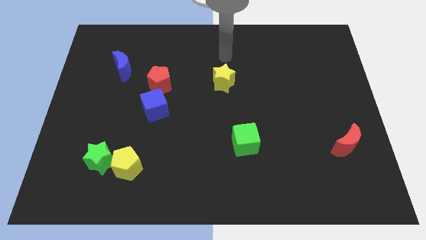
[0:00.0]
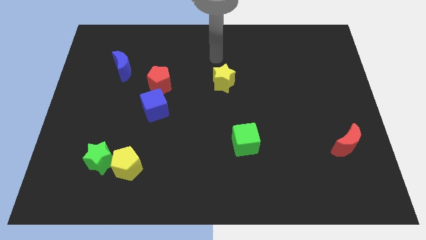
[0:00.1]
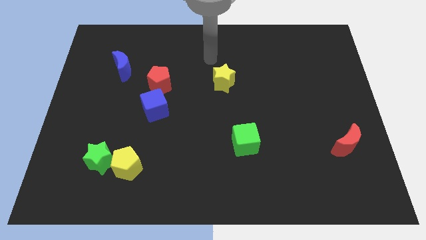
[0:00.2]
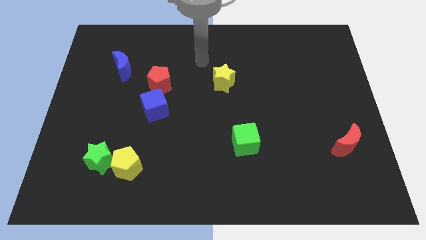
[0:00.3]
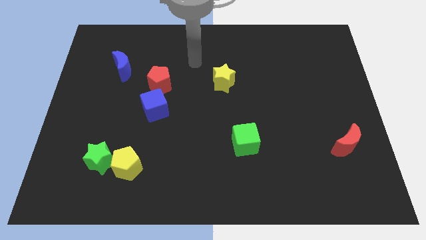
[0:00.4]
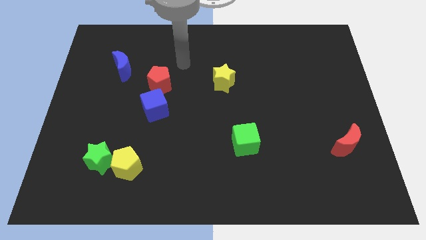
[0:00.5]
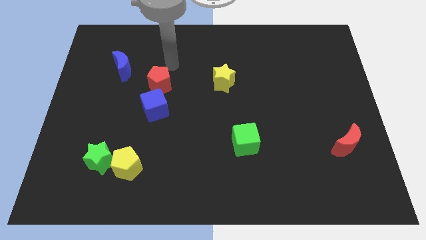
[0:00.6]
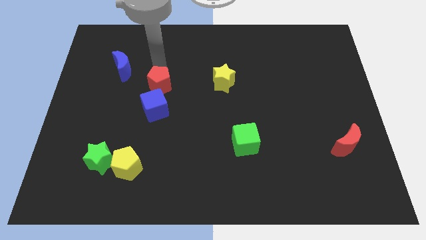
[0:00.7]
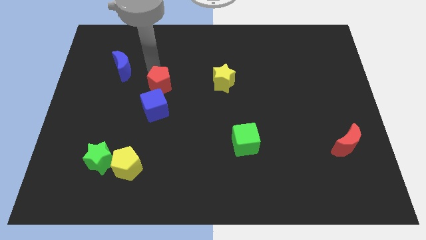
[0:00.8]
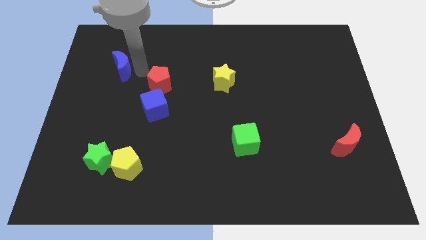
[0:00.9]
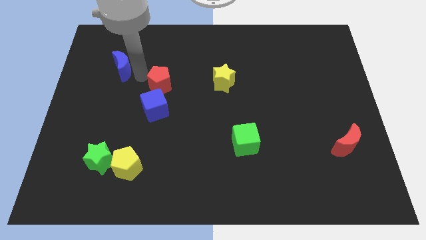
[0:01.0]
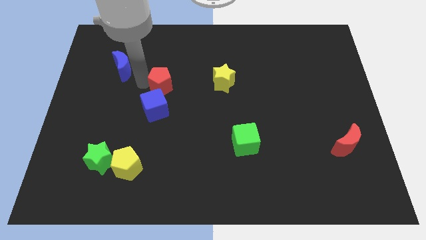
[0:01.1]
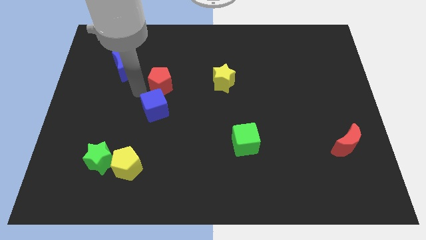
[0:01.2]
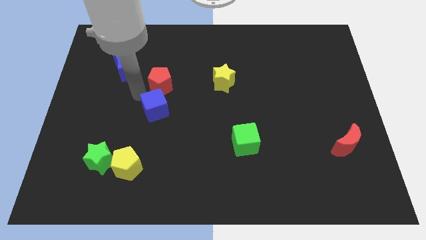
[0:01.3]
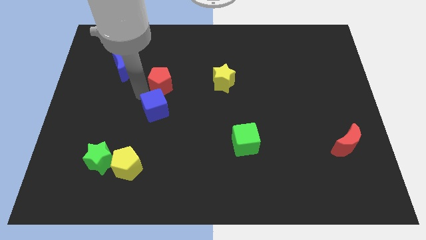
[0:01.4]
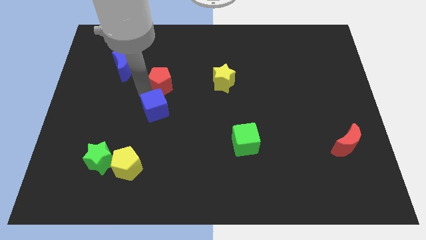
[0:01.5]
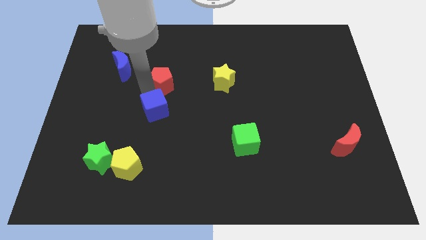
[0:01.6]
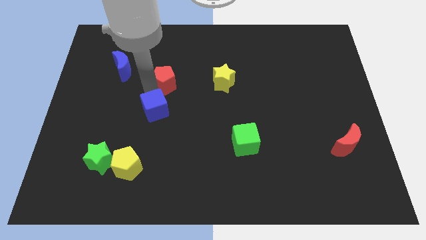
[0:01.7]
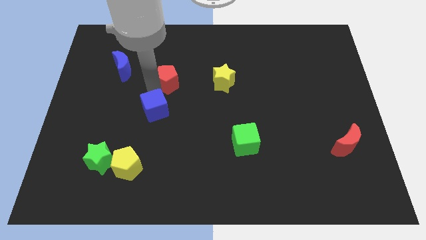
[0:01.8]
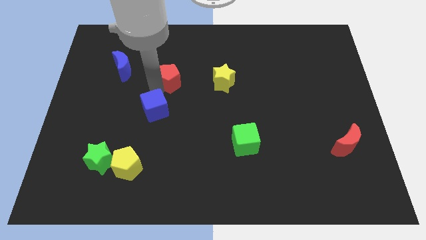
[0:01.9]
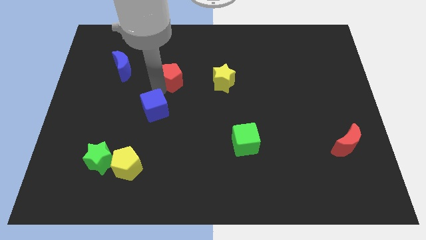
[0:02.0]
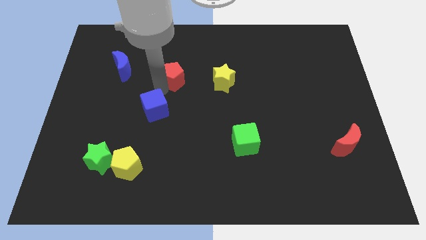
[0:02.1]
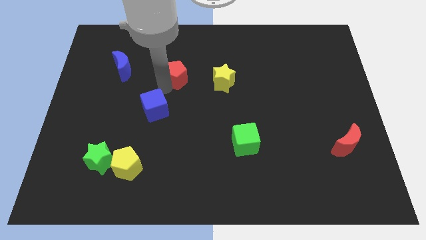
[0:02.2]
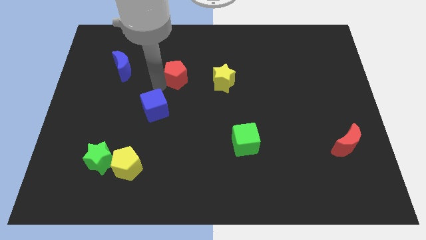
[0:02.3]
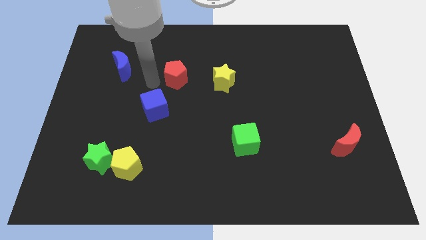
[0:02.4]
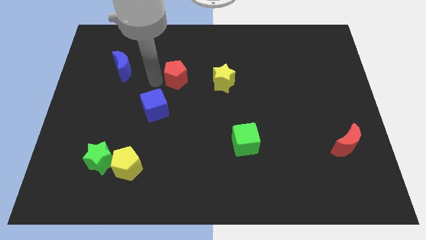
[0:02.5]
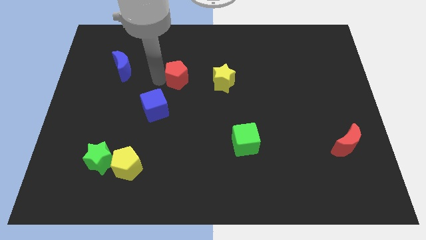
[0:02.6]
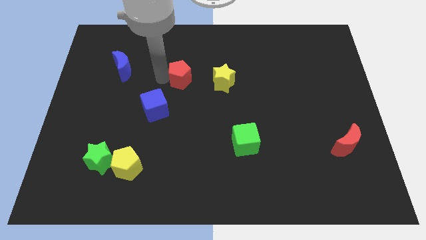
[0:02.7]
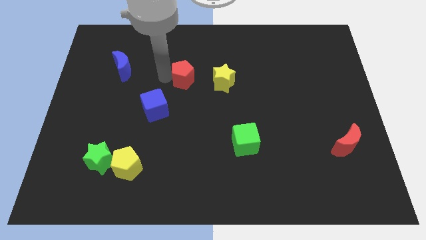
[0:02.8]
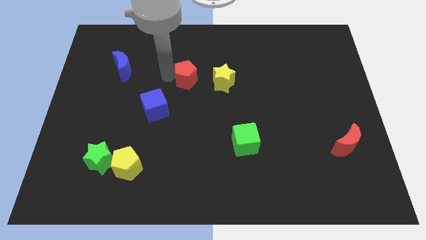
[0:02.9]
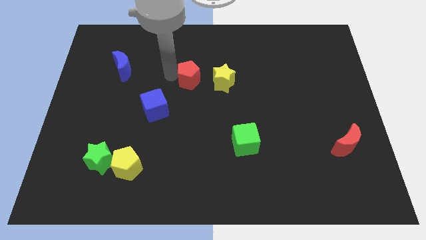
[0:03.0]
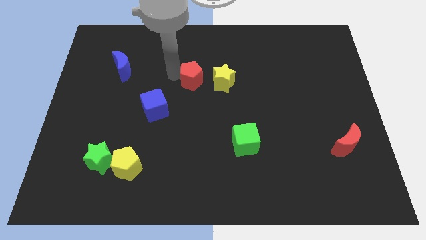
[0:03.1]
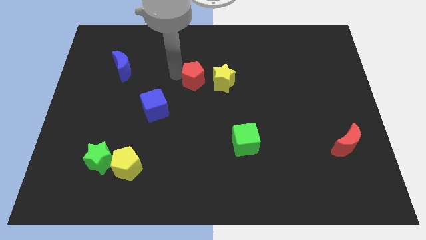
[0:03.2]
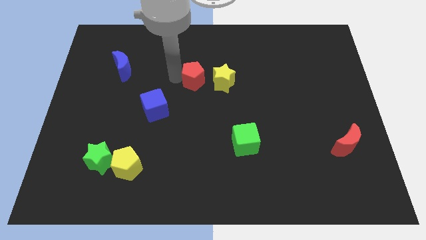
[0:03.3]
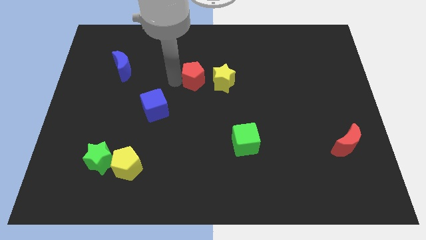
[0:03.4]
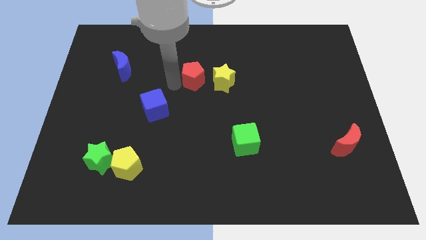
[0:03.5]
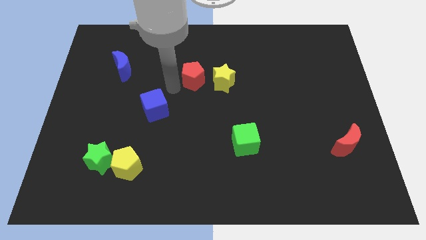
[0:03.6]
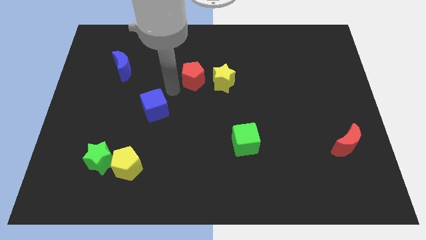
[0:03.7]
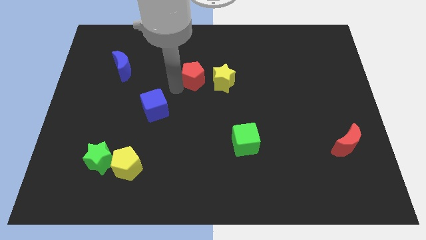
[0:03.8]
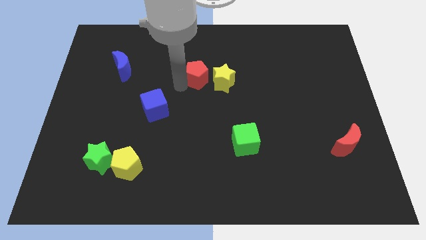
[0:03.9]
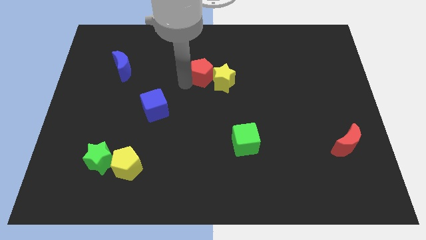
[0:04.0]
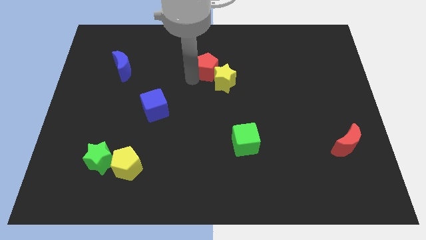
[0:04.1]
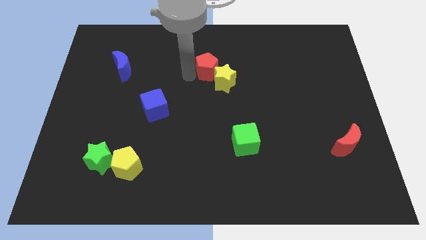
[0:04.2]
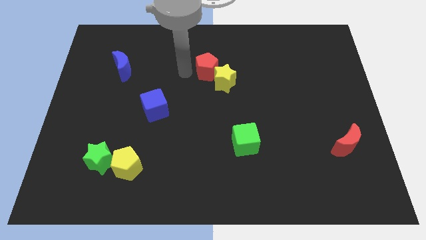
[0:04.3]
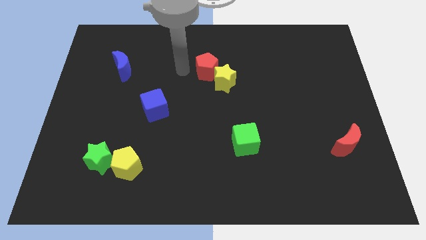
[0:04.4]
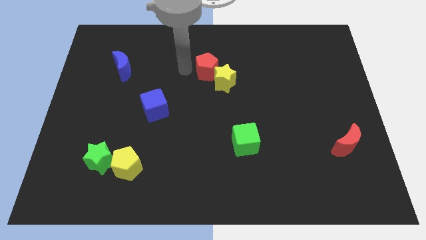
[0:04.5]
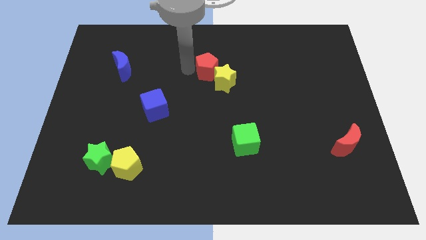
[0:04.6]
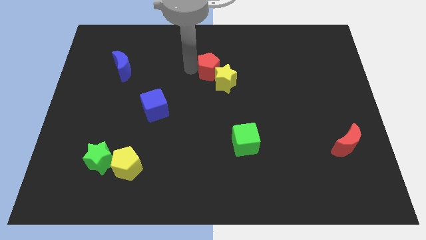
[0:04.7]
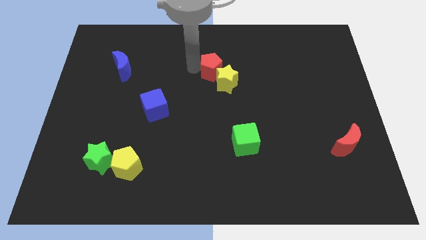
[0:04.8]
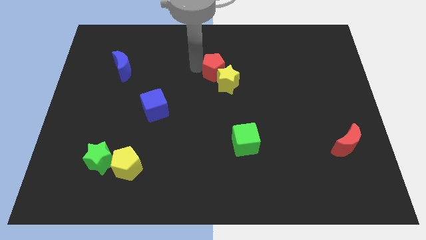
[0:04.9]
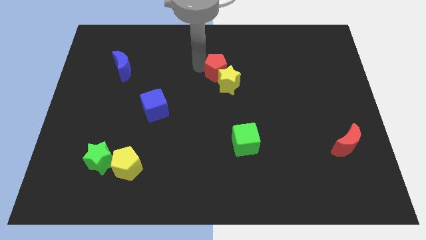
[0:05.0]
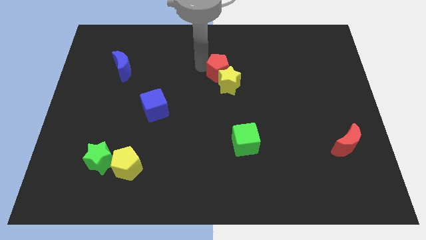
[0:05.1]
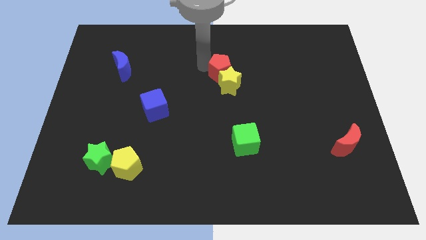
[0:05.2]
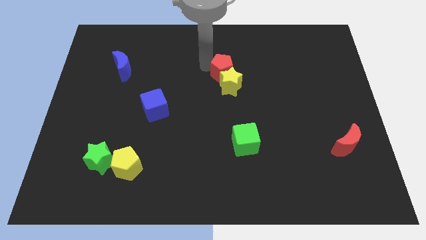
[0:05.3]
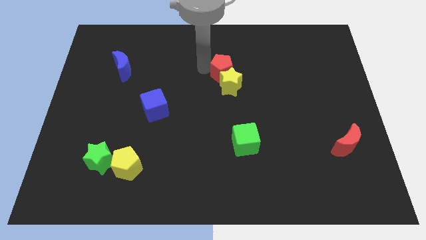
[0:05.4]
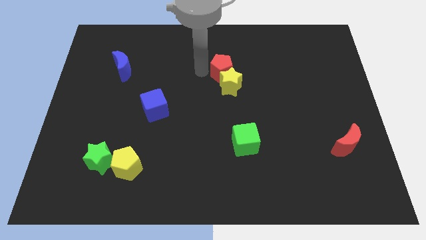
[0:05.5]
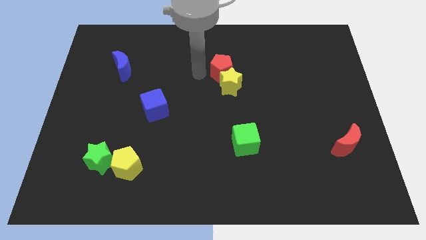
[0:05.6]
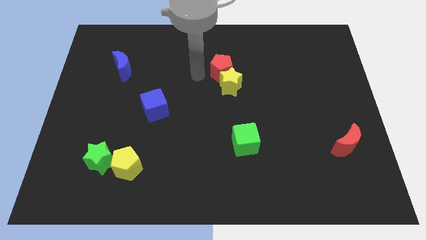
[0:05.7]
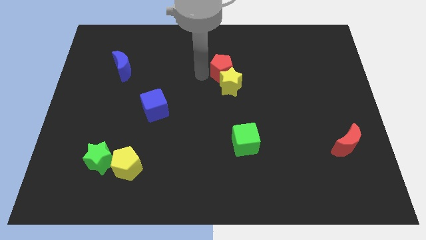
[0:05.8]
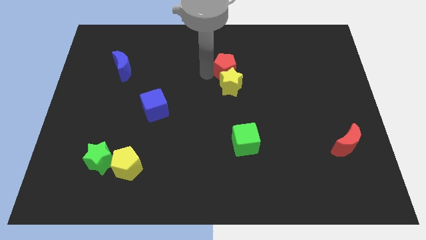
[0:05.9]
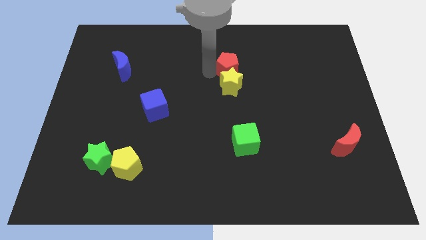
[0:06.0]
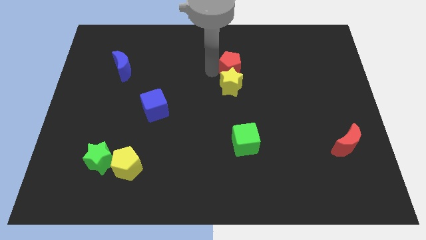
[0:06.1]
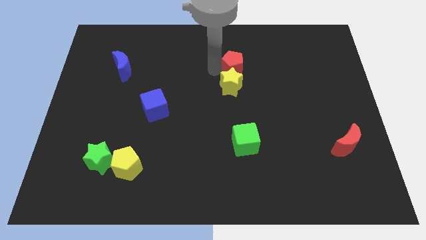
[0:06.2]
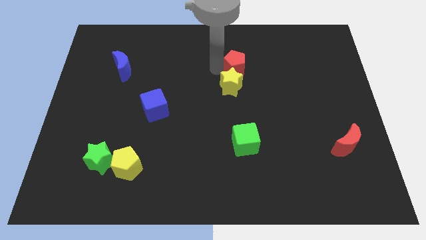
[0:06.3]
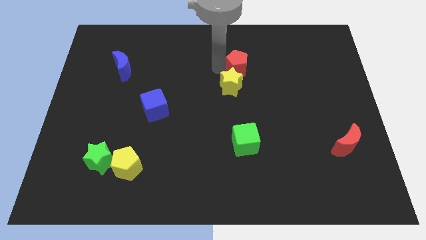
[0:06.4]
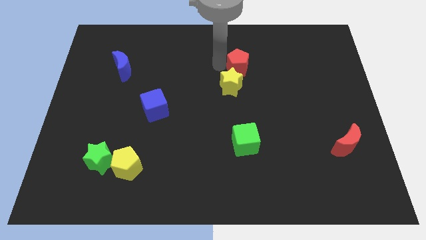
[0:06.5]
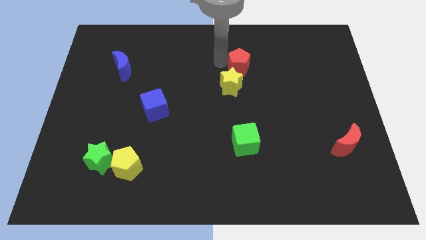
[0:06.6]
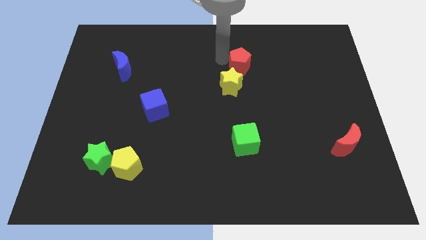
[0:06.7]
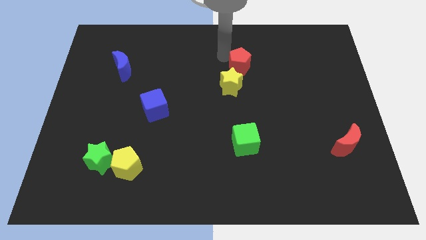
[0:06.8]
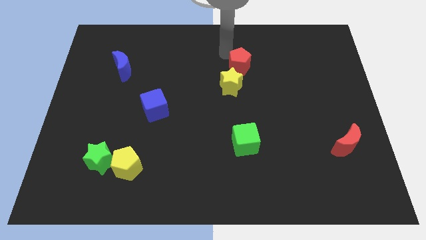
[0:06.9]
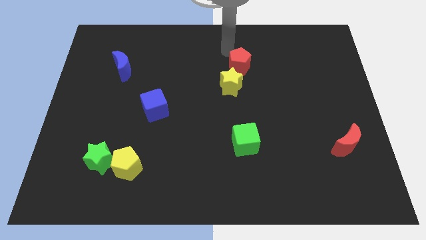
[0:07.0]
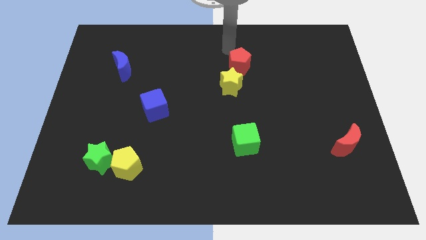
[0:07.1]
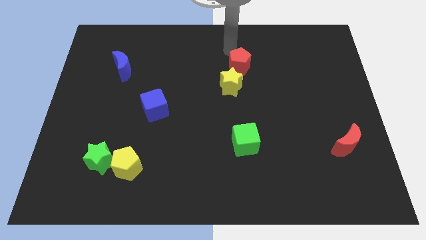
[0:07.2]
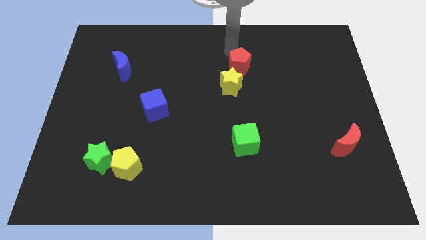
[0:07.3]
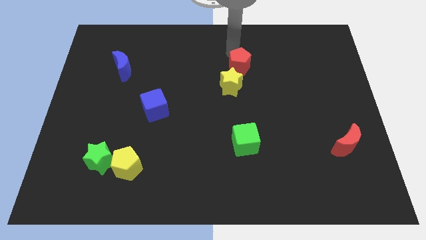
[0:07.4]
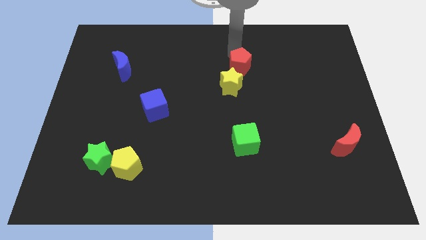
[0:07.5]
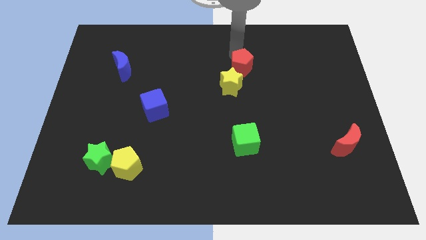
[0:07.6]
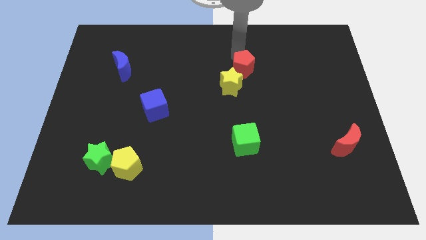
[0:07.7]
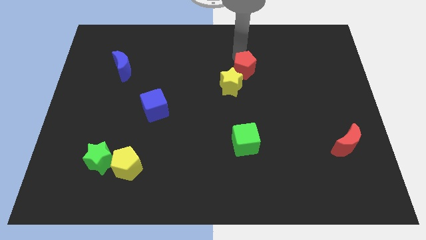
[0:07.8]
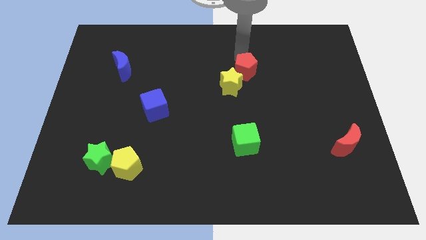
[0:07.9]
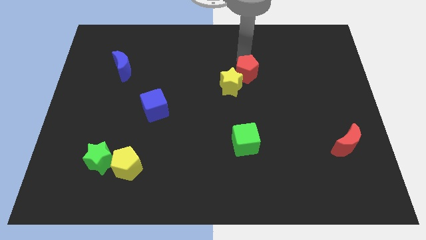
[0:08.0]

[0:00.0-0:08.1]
push the red pentagon right of the yellow star
